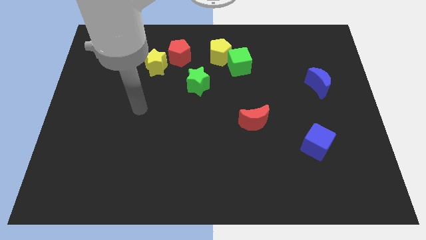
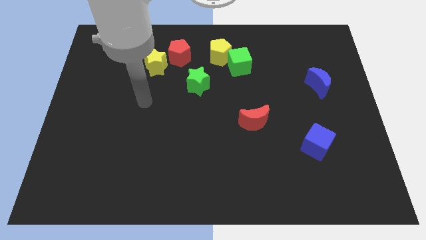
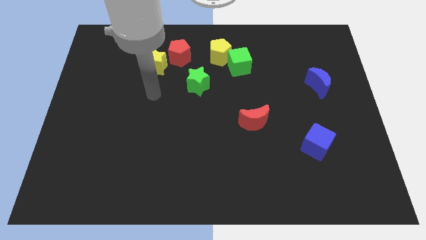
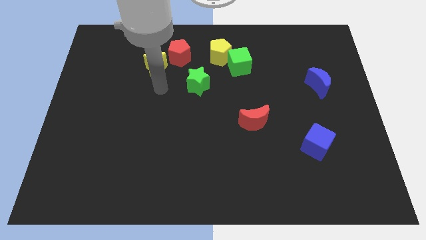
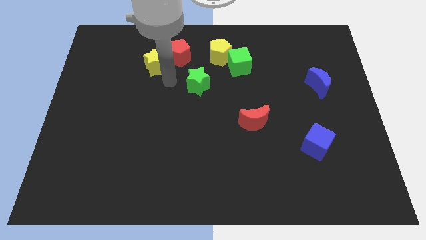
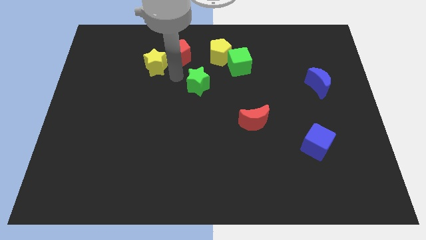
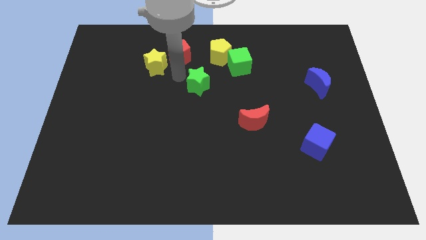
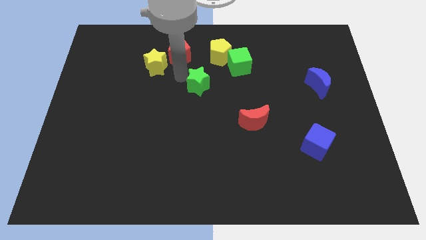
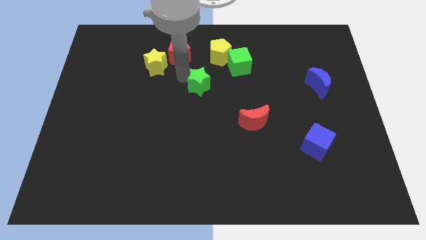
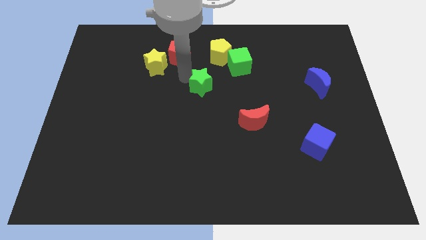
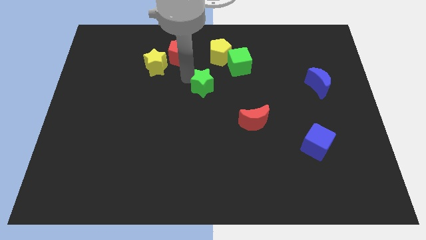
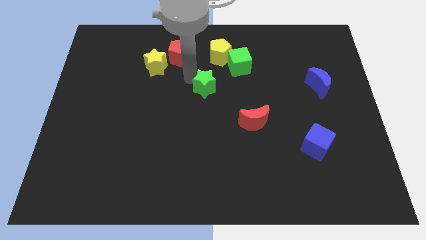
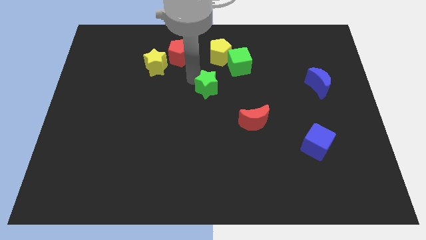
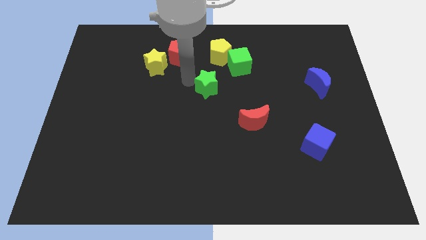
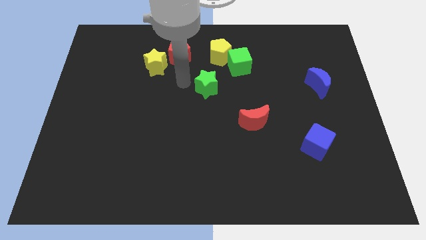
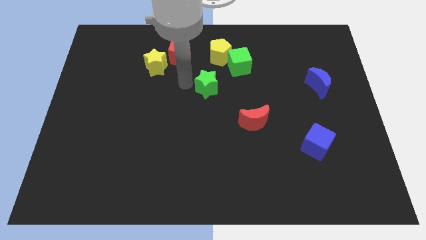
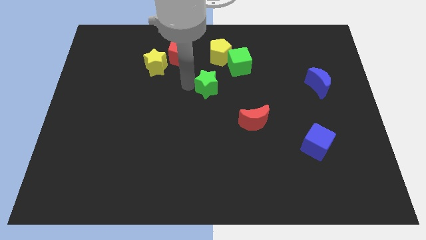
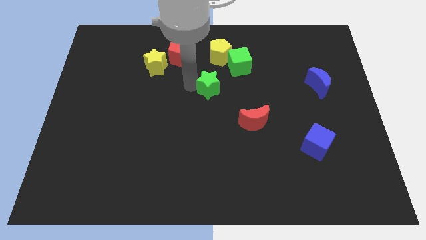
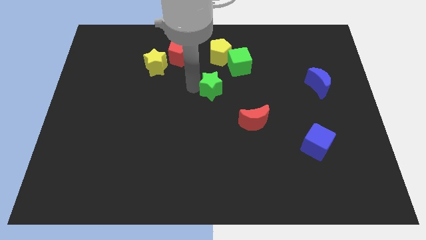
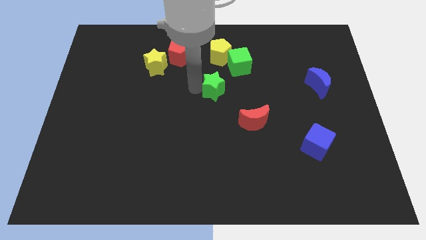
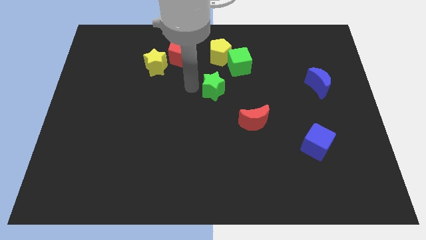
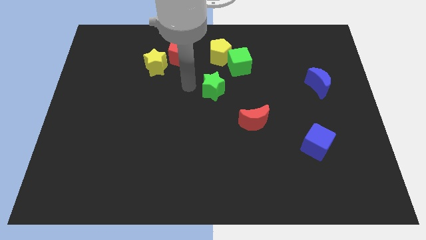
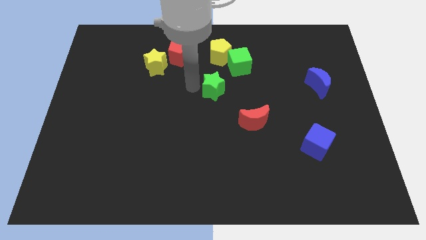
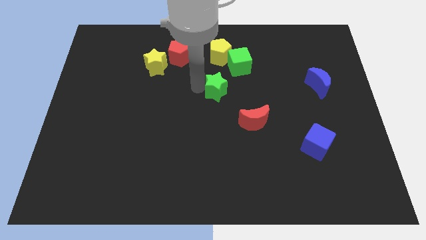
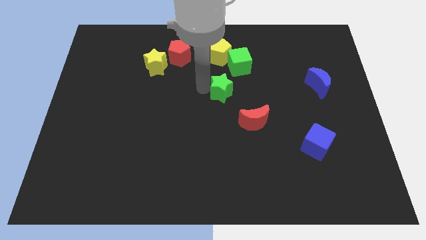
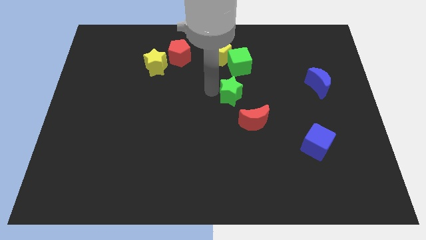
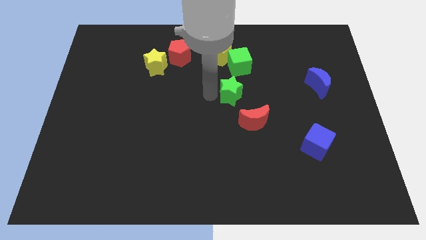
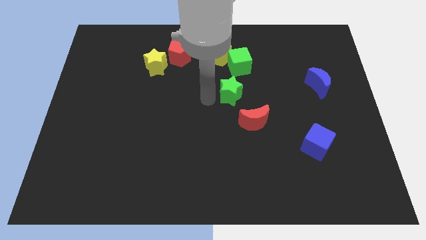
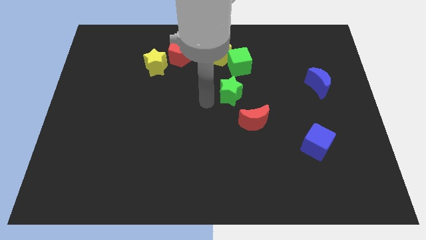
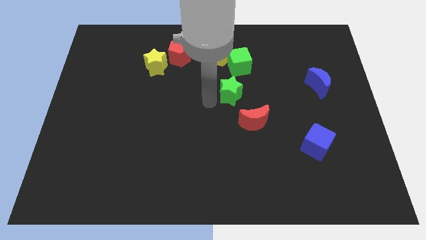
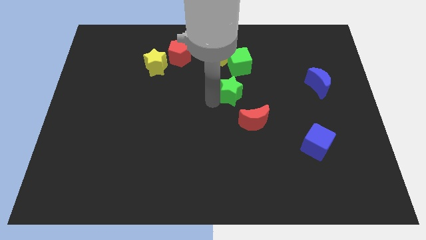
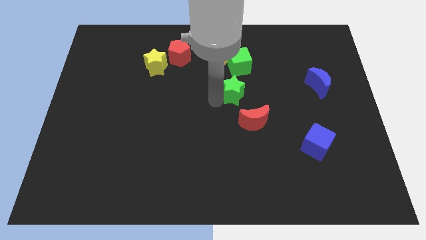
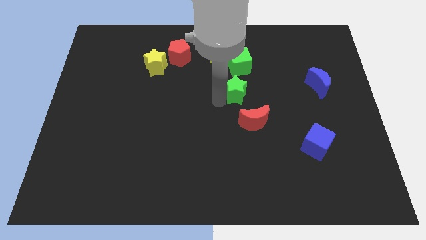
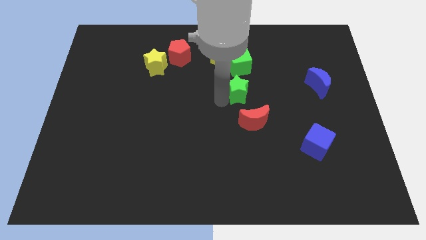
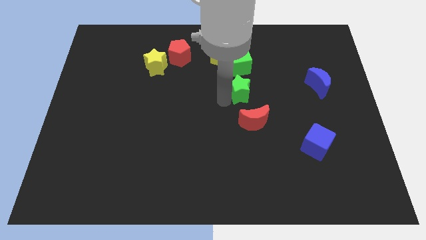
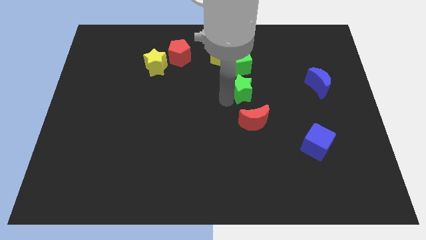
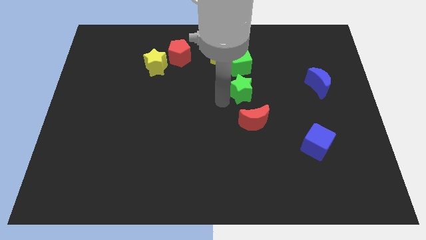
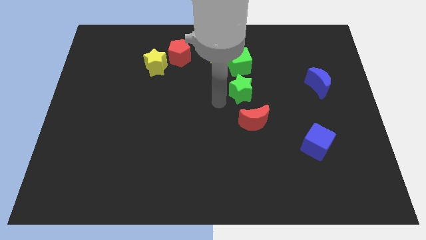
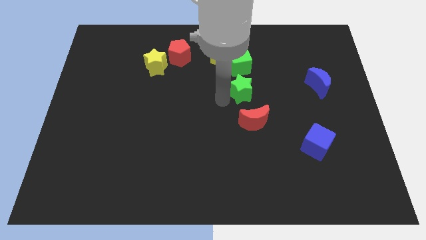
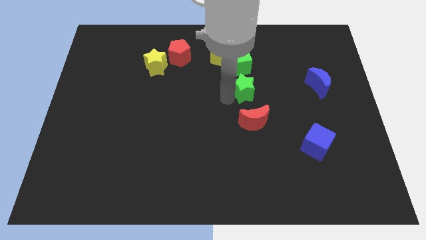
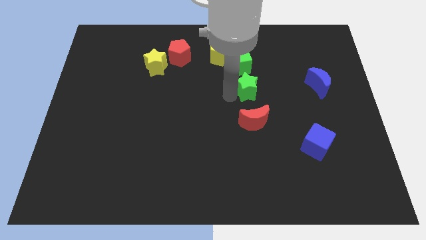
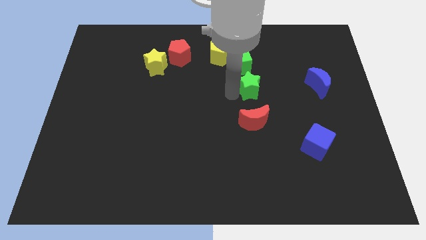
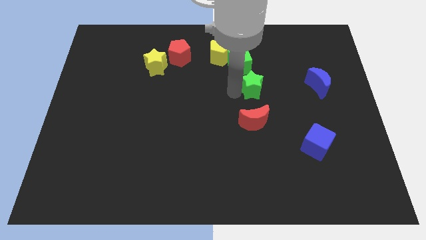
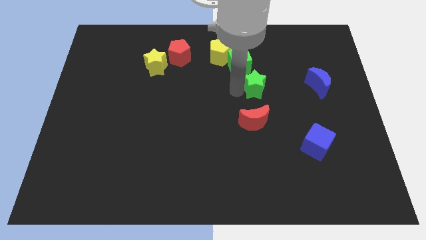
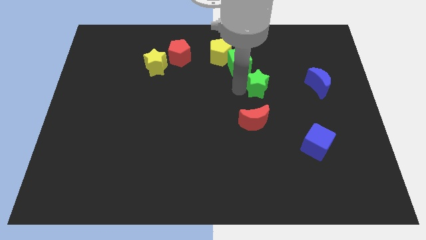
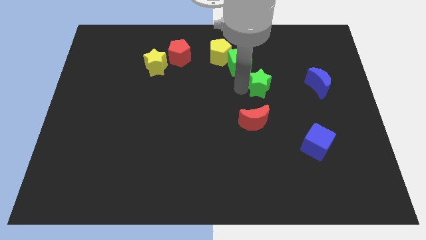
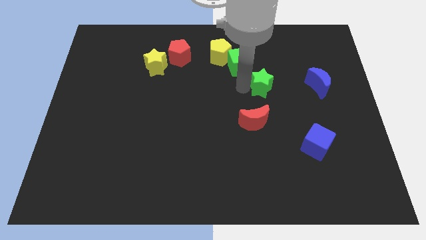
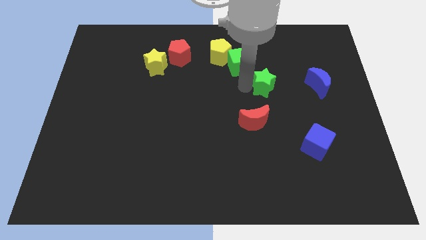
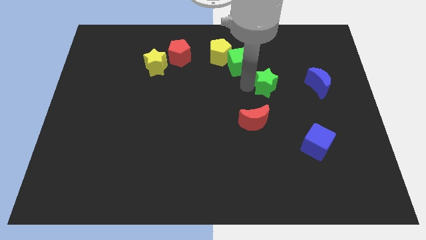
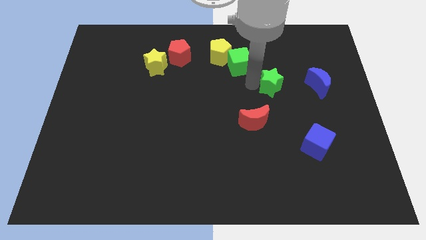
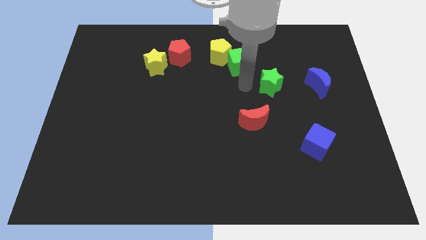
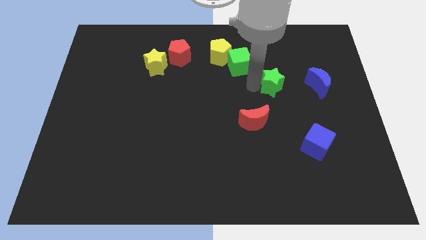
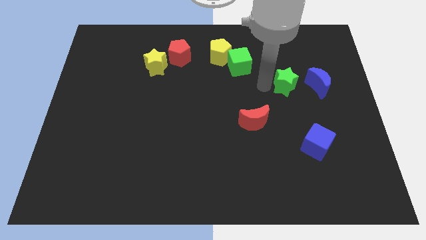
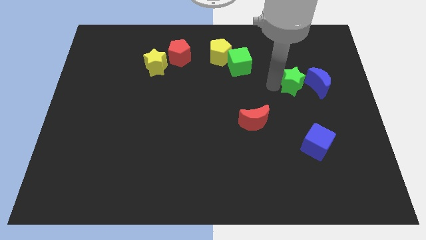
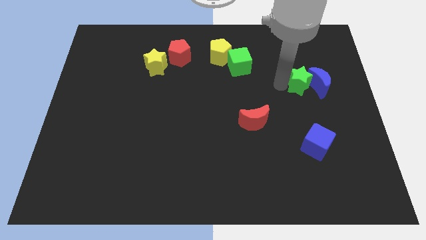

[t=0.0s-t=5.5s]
put the green star next to the blue moon

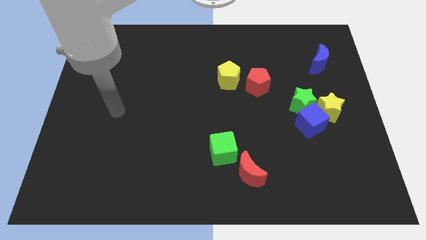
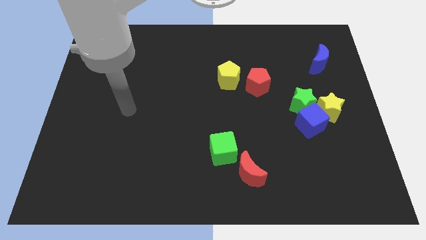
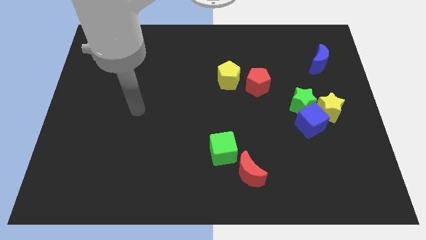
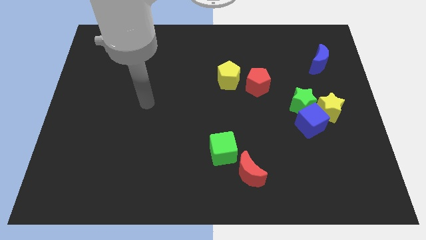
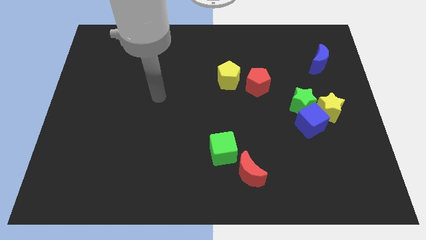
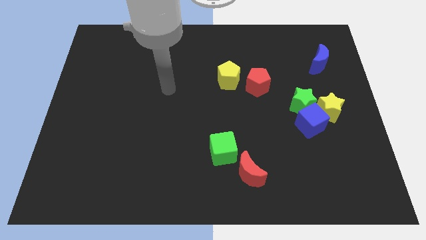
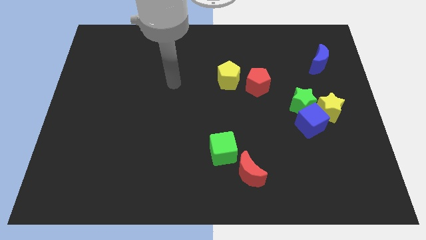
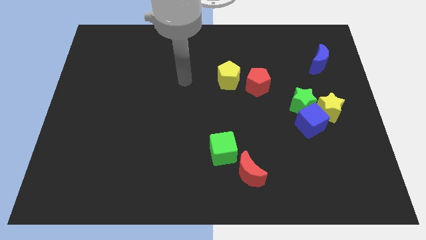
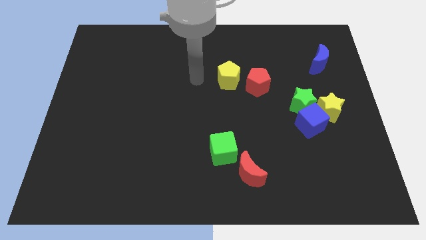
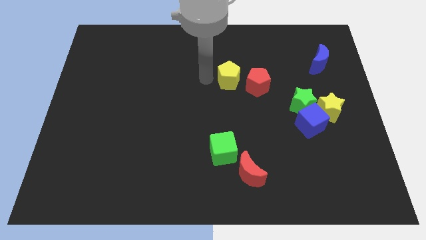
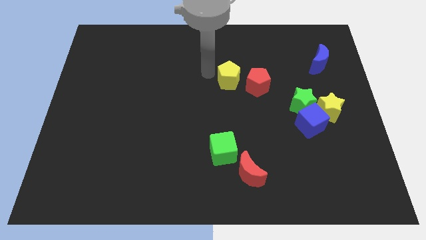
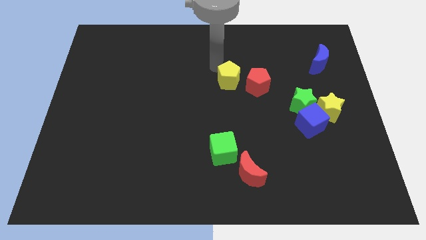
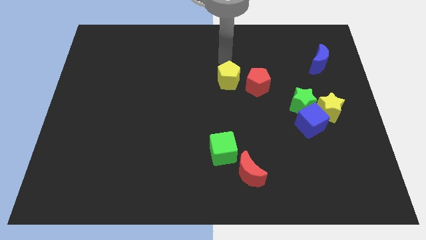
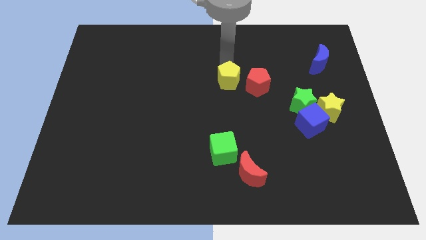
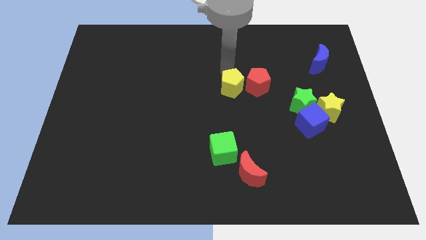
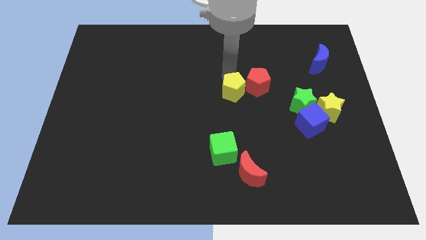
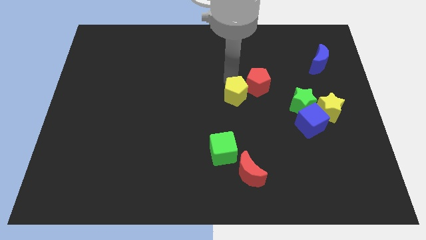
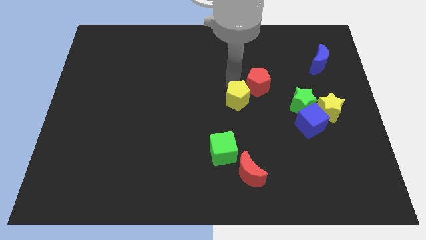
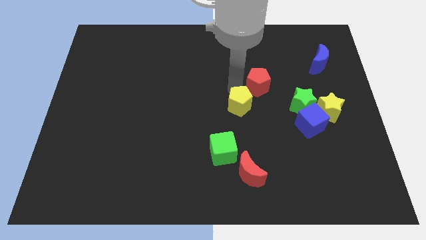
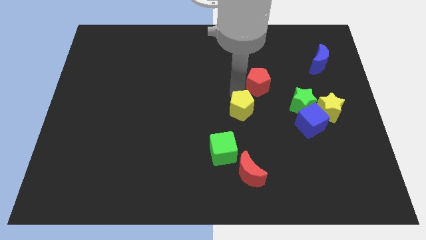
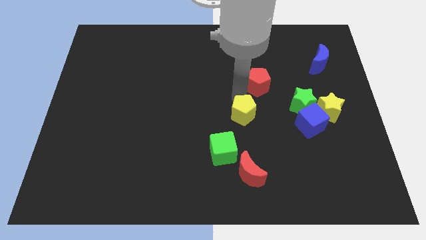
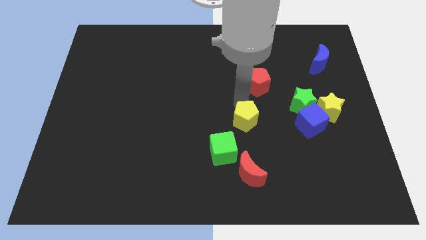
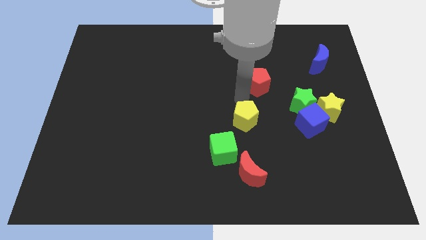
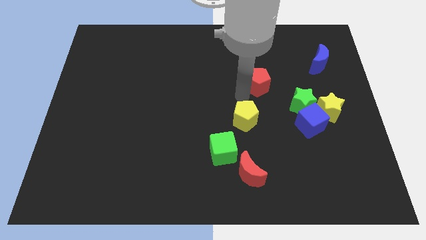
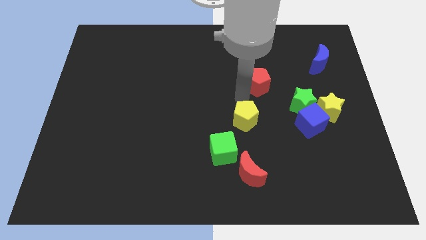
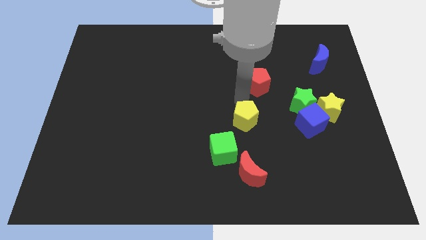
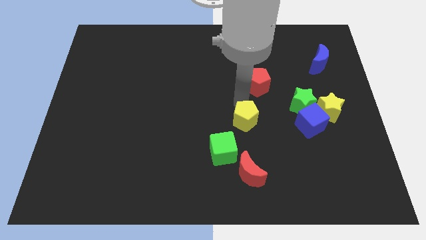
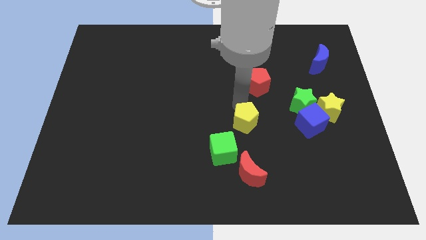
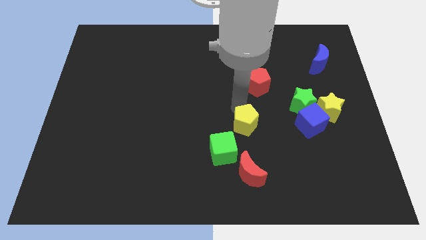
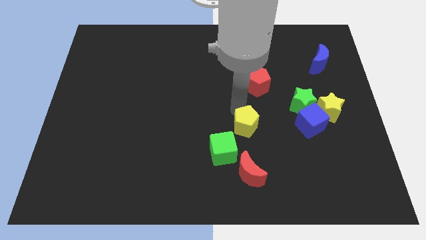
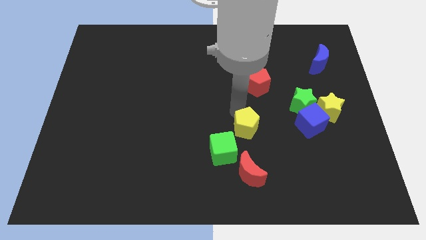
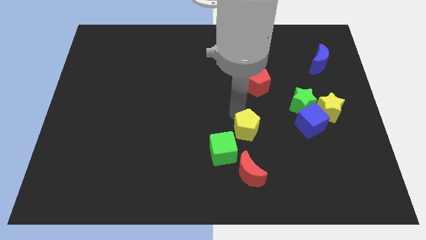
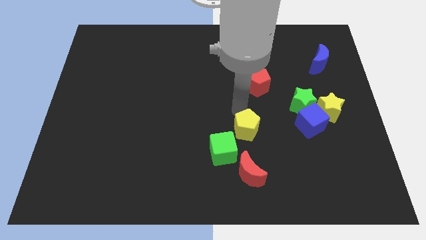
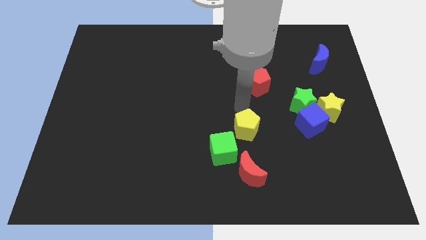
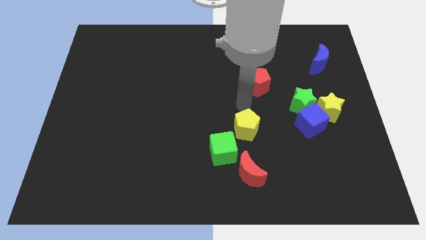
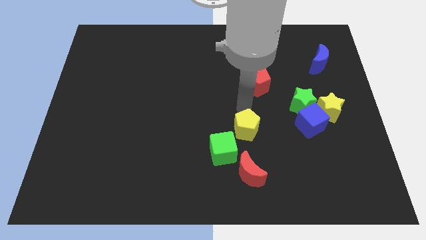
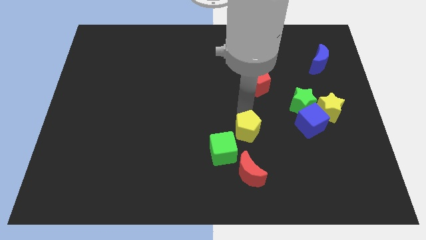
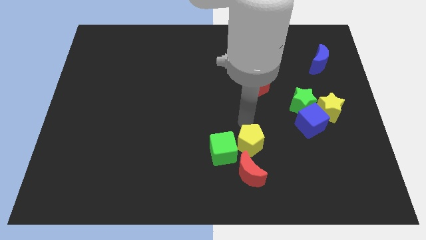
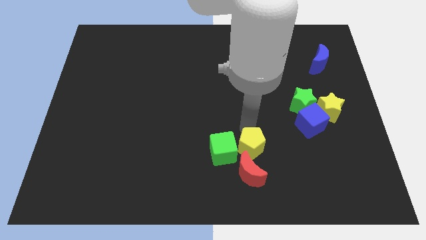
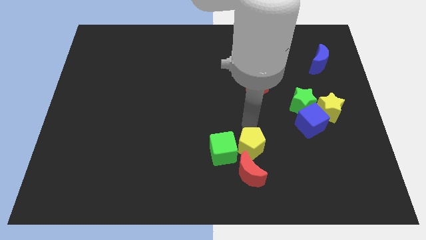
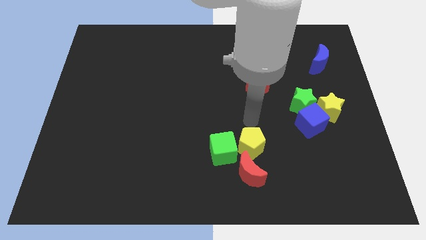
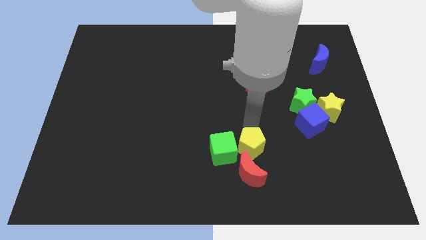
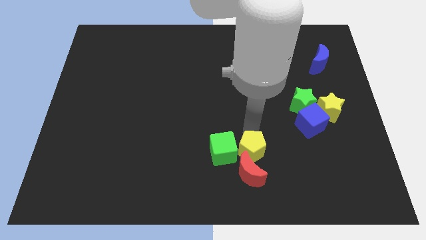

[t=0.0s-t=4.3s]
put the yellow pentagon towards the red moon
